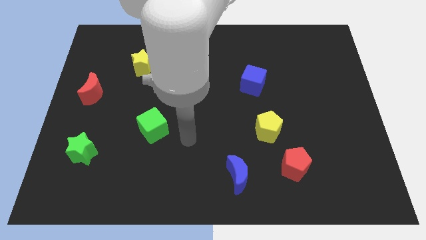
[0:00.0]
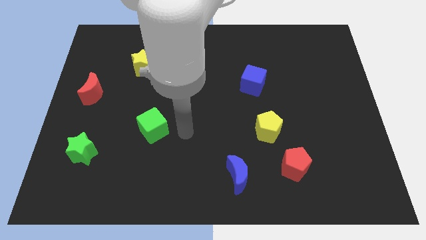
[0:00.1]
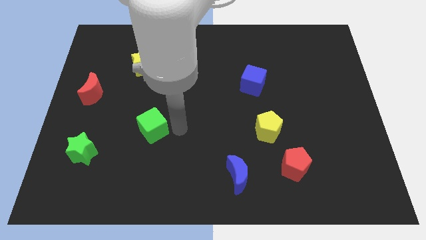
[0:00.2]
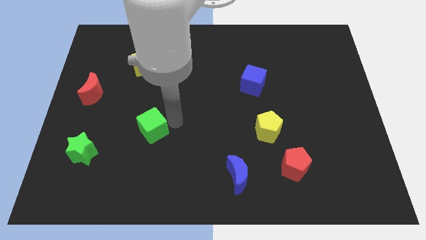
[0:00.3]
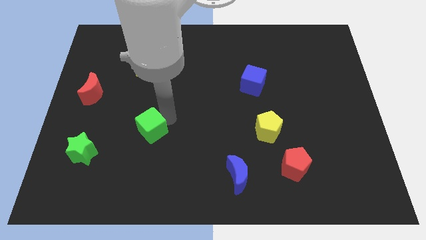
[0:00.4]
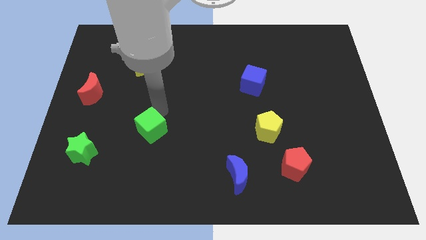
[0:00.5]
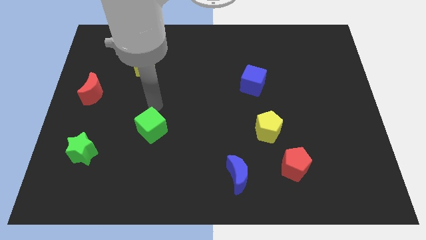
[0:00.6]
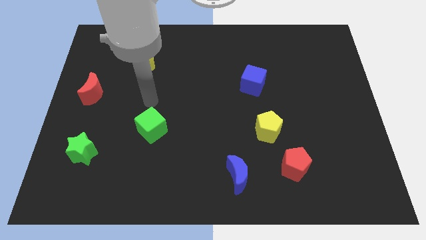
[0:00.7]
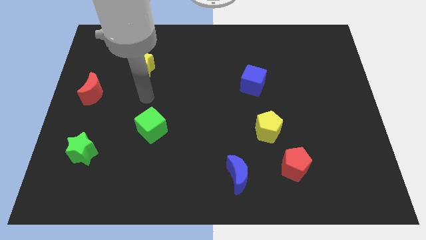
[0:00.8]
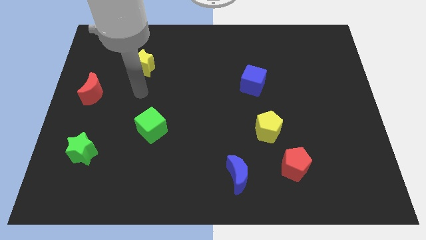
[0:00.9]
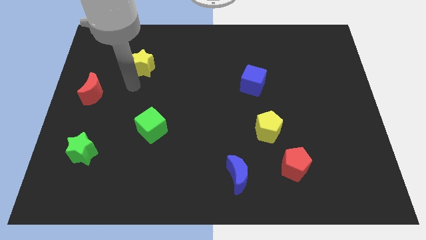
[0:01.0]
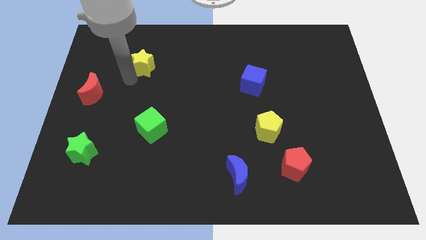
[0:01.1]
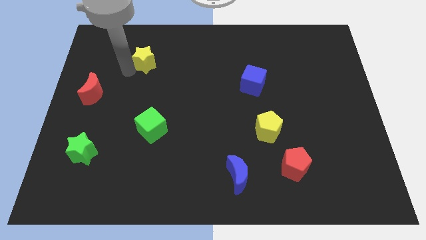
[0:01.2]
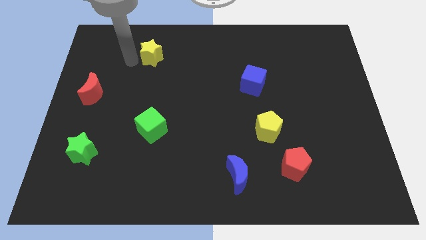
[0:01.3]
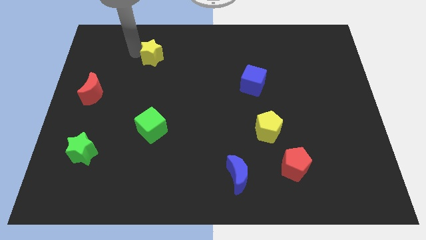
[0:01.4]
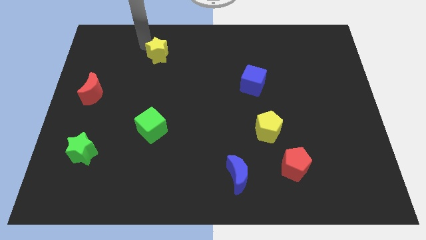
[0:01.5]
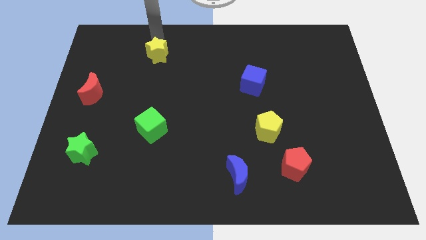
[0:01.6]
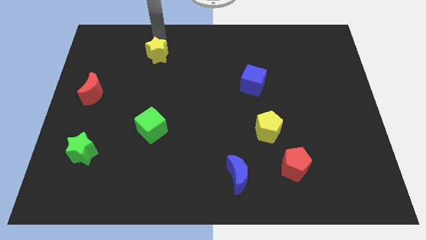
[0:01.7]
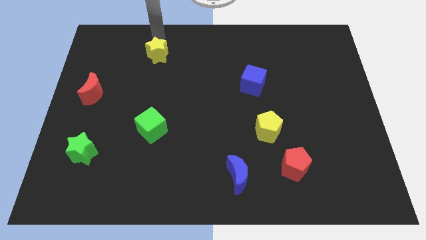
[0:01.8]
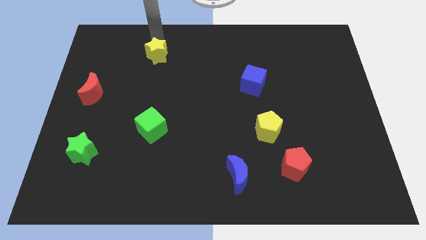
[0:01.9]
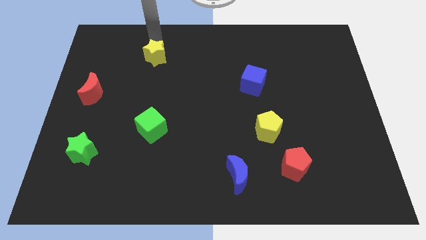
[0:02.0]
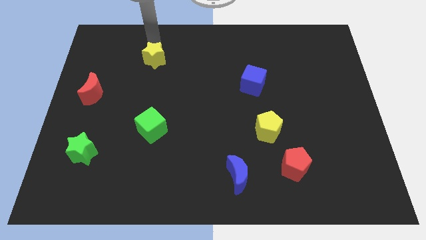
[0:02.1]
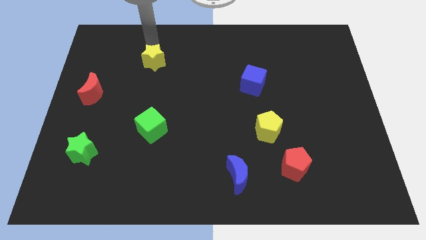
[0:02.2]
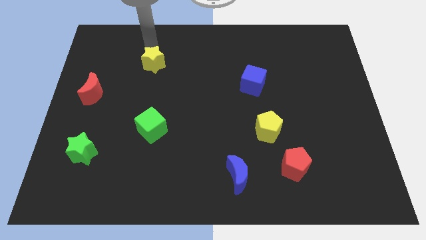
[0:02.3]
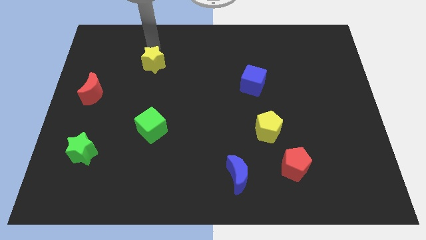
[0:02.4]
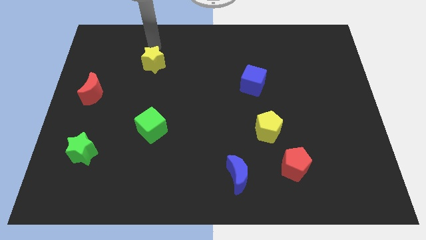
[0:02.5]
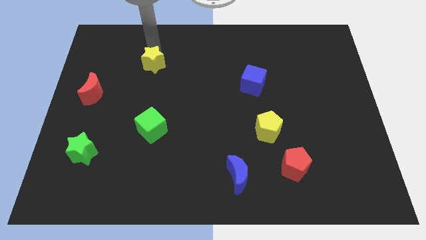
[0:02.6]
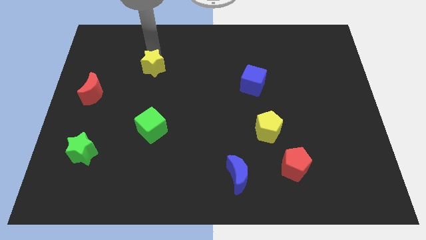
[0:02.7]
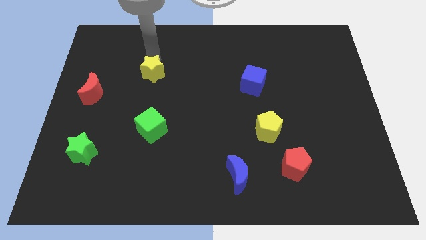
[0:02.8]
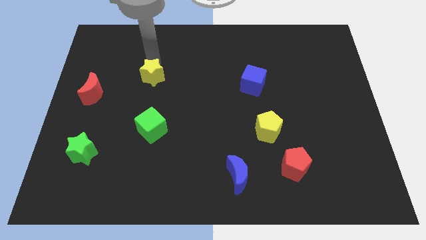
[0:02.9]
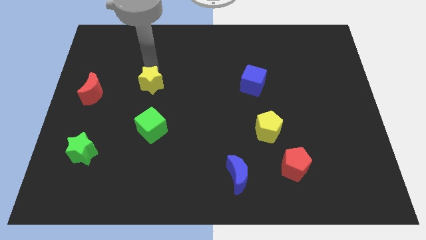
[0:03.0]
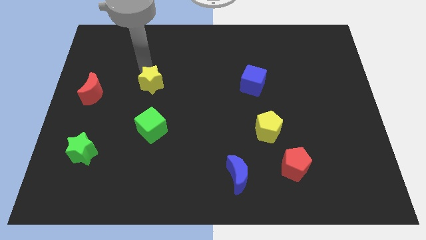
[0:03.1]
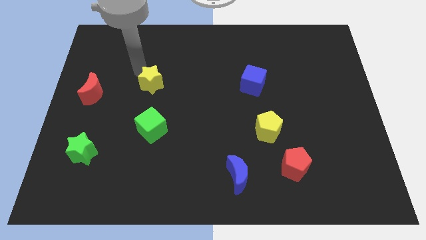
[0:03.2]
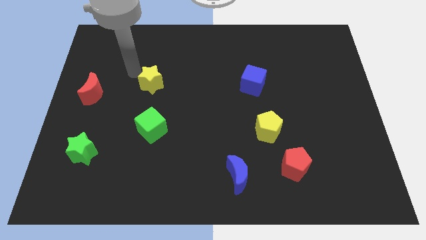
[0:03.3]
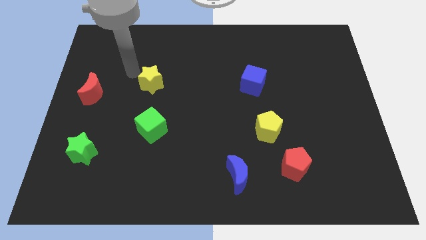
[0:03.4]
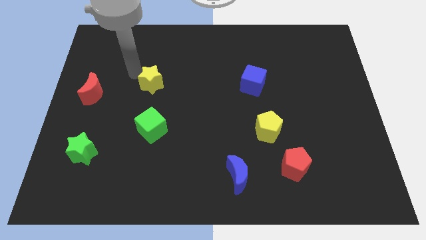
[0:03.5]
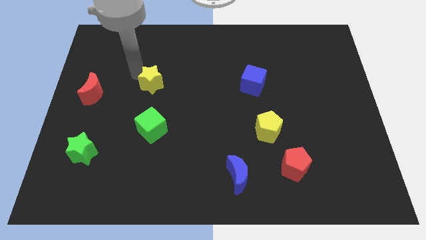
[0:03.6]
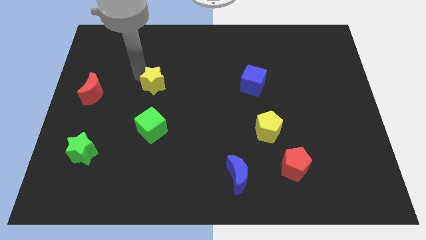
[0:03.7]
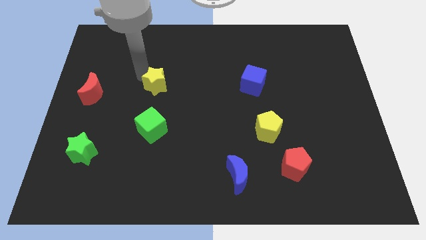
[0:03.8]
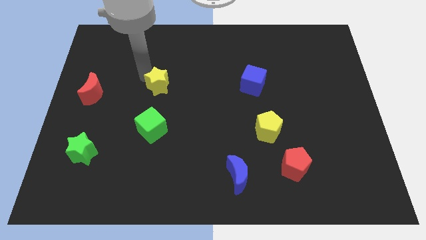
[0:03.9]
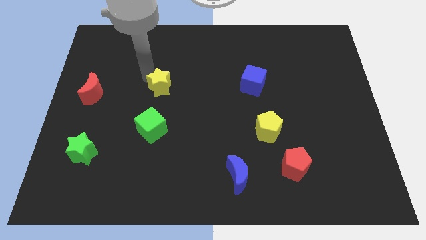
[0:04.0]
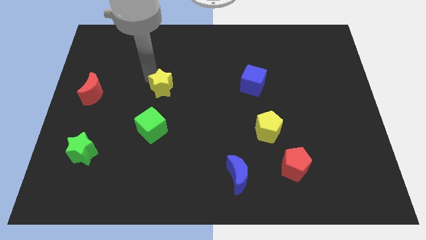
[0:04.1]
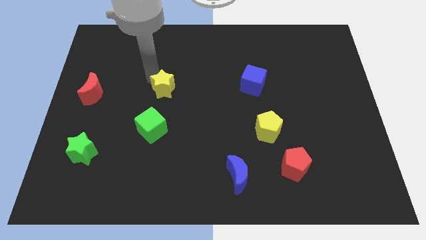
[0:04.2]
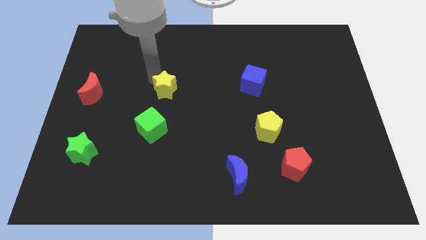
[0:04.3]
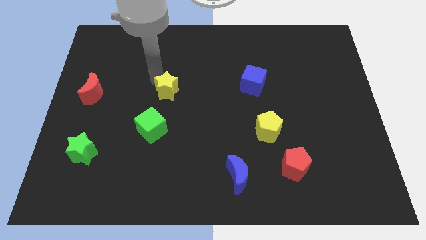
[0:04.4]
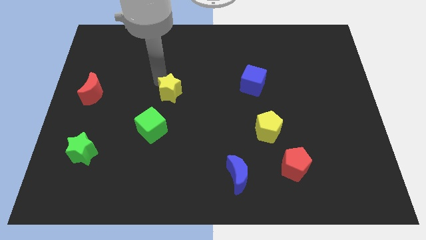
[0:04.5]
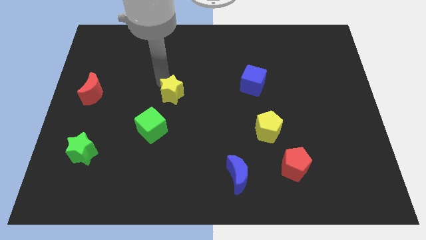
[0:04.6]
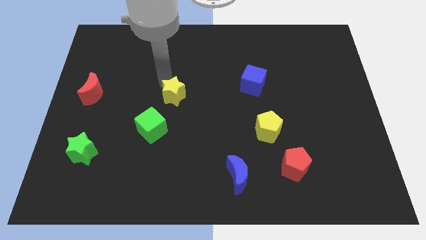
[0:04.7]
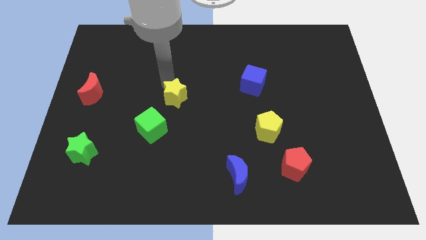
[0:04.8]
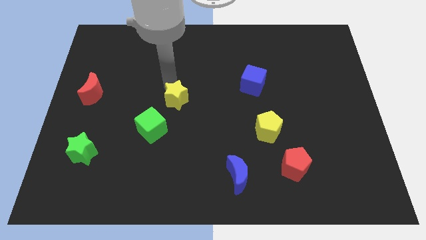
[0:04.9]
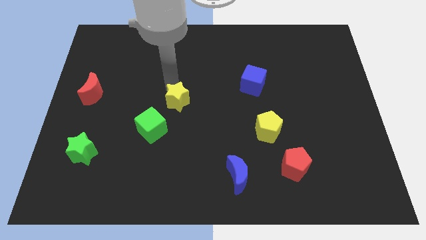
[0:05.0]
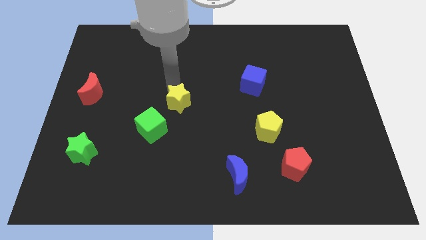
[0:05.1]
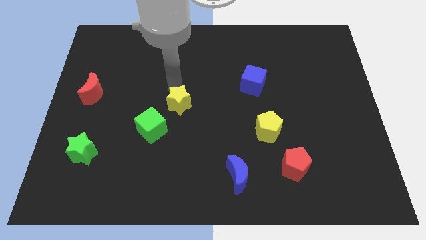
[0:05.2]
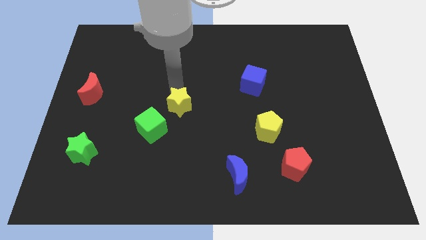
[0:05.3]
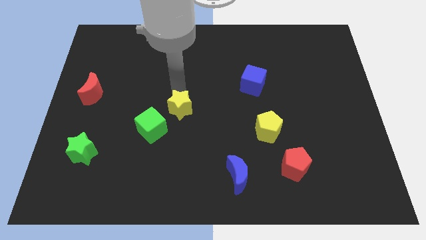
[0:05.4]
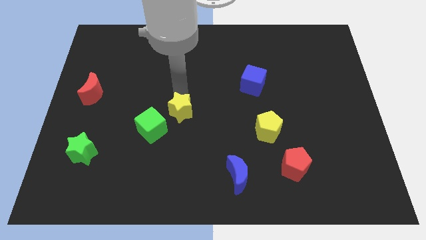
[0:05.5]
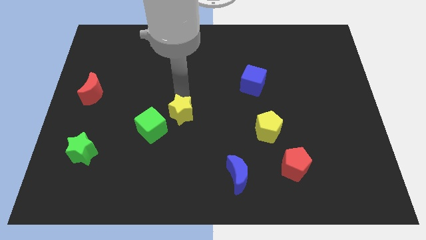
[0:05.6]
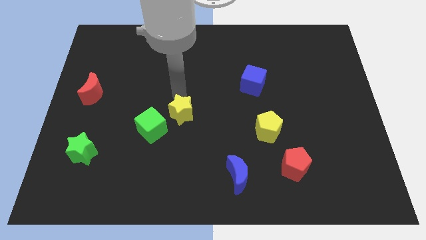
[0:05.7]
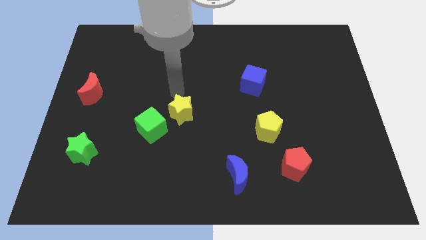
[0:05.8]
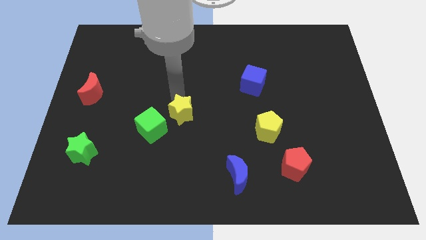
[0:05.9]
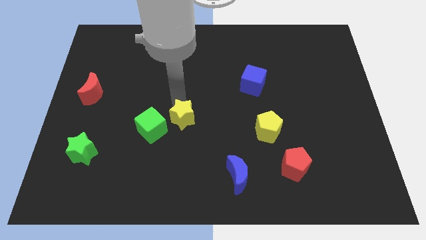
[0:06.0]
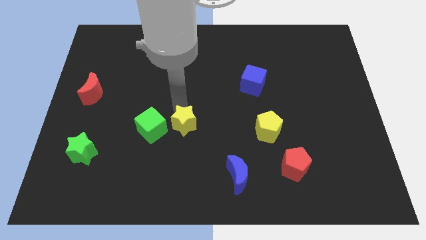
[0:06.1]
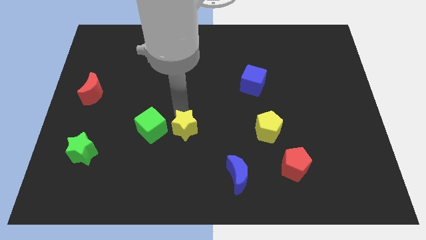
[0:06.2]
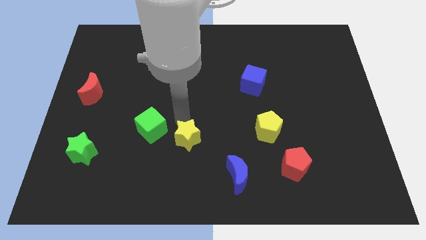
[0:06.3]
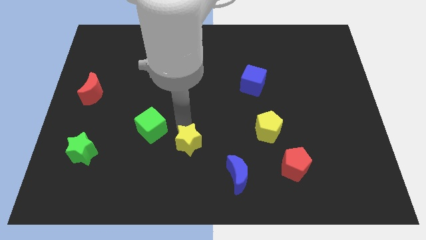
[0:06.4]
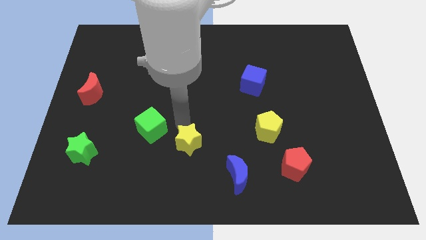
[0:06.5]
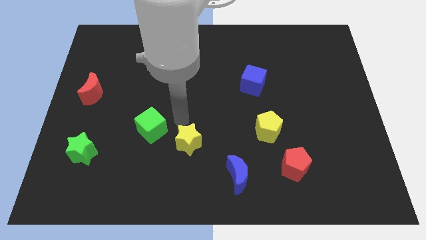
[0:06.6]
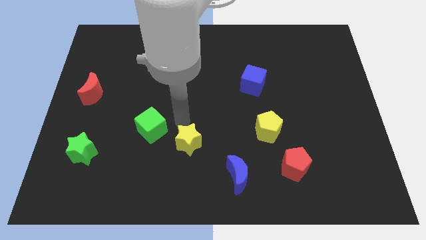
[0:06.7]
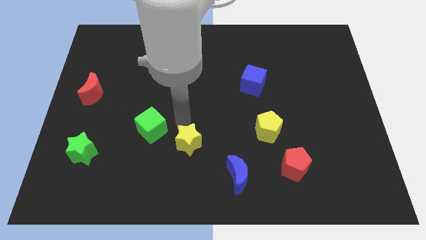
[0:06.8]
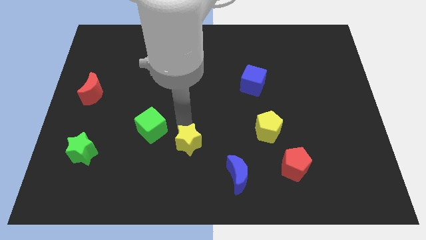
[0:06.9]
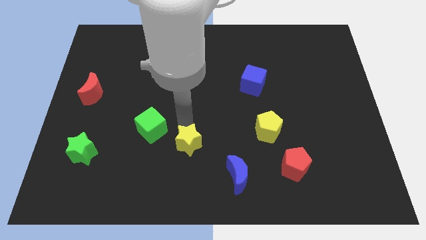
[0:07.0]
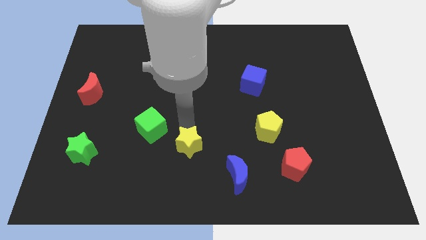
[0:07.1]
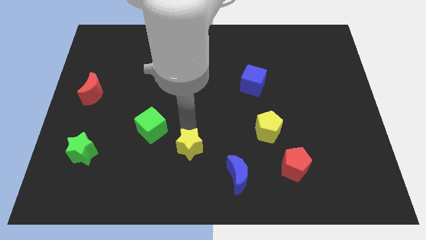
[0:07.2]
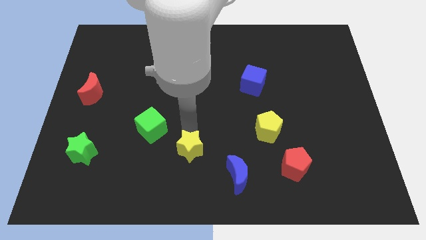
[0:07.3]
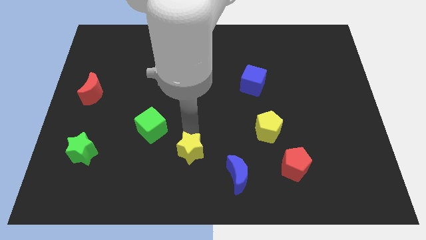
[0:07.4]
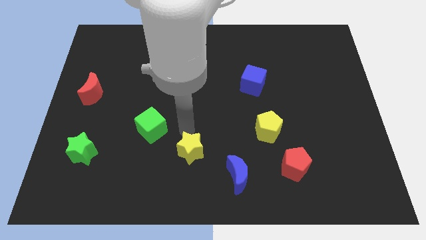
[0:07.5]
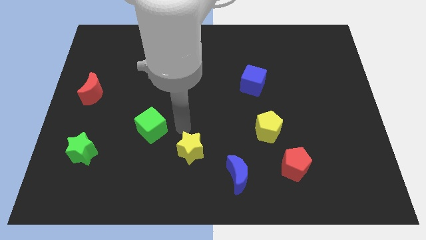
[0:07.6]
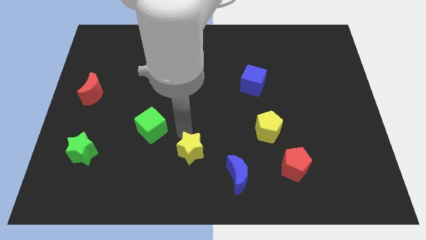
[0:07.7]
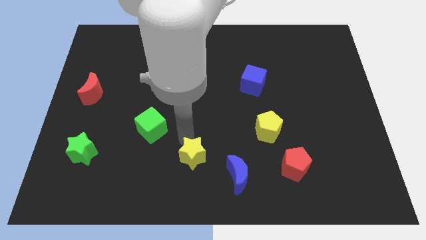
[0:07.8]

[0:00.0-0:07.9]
put the yellow star to the bottom
